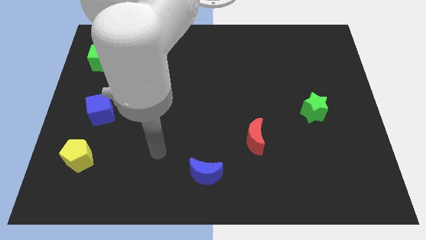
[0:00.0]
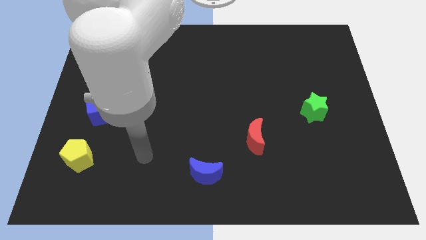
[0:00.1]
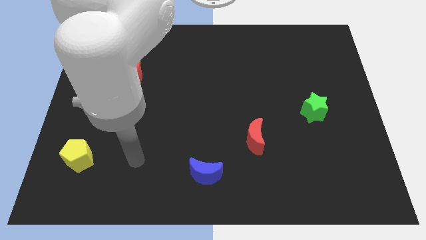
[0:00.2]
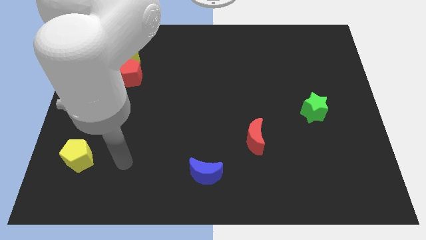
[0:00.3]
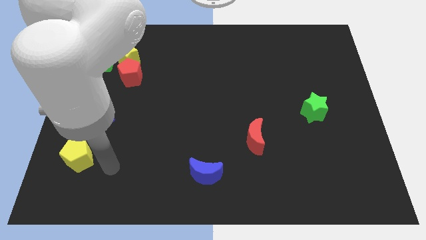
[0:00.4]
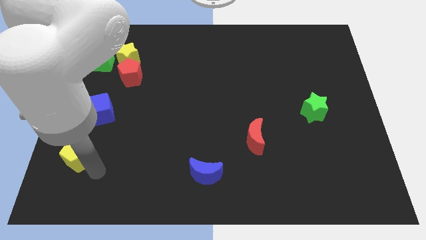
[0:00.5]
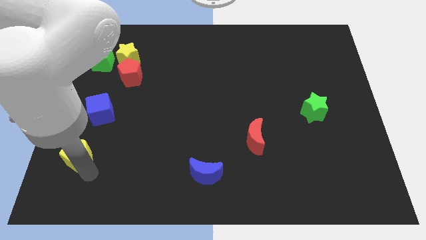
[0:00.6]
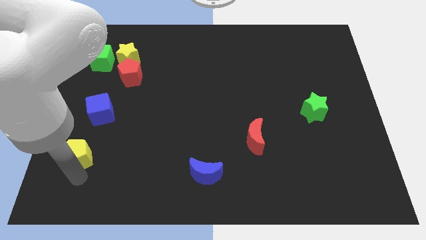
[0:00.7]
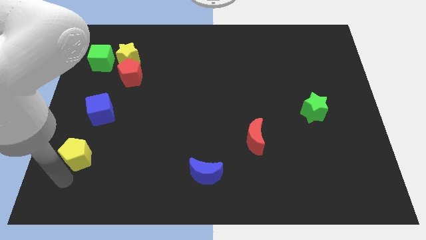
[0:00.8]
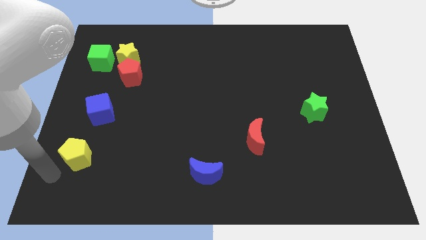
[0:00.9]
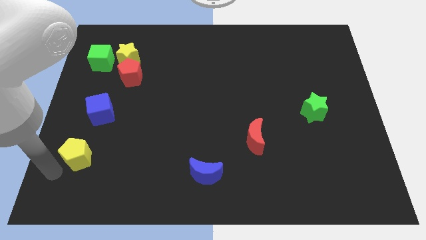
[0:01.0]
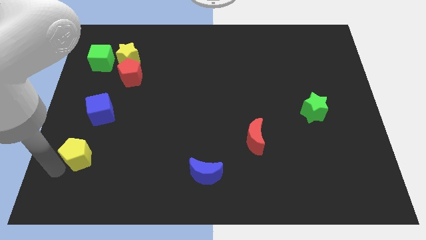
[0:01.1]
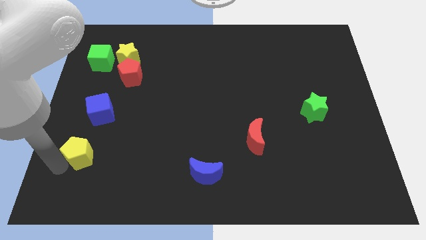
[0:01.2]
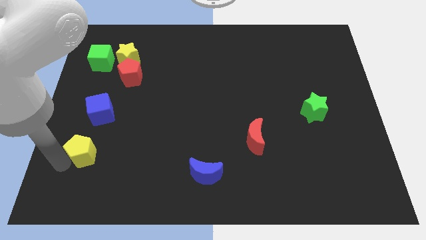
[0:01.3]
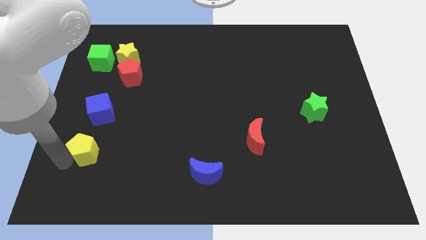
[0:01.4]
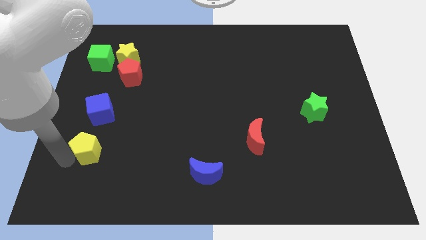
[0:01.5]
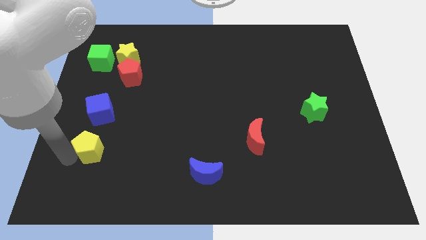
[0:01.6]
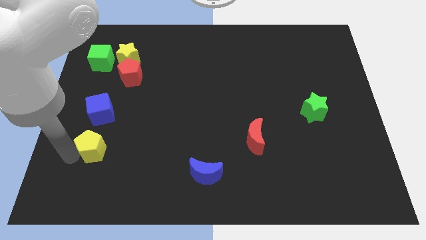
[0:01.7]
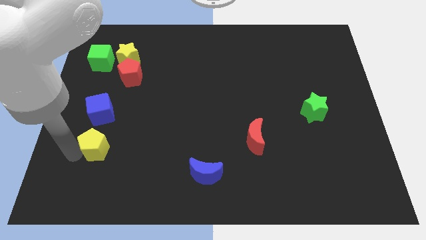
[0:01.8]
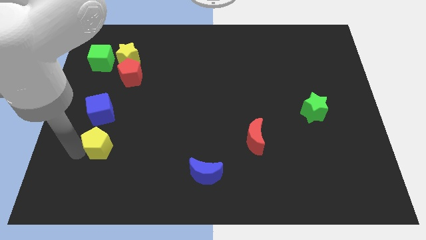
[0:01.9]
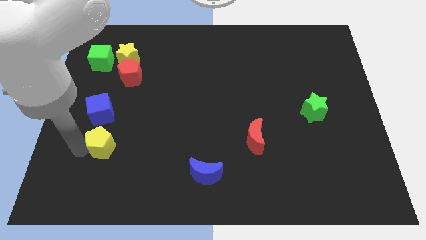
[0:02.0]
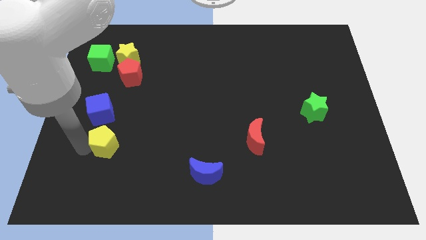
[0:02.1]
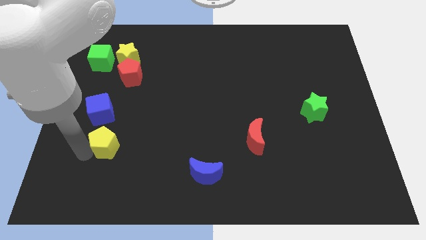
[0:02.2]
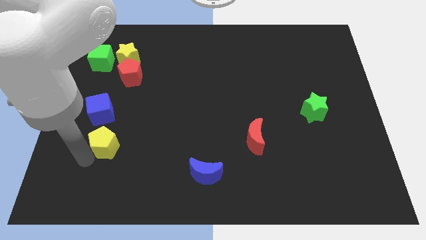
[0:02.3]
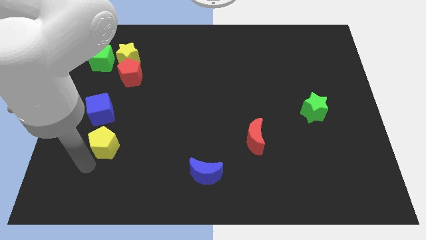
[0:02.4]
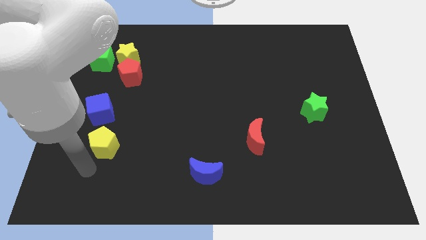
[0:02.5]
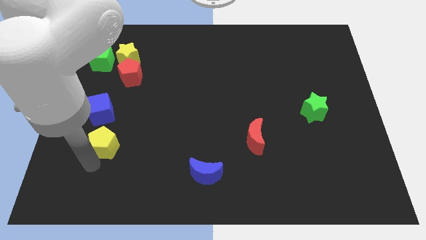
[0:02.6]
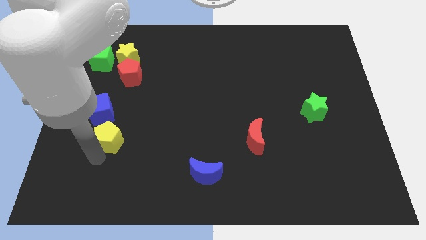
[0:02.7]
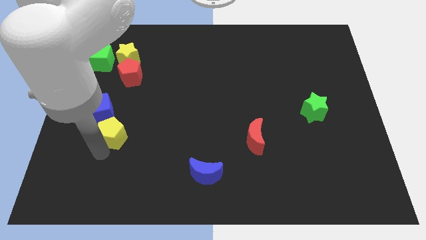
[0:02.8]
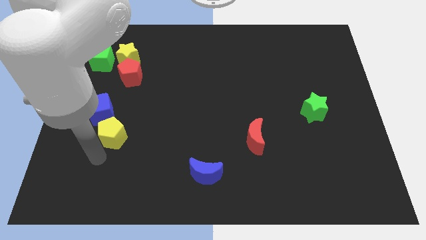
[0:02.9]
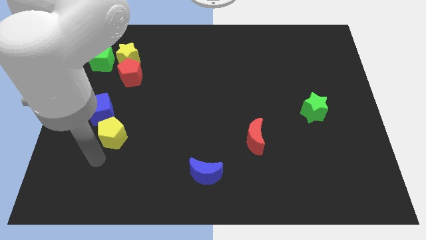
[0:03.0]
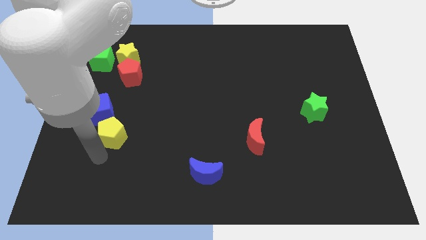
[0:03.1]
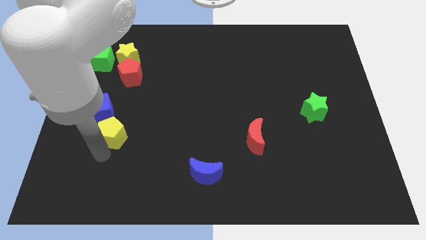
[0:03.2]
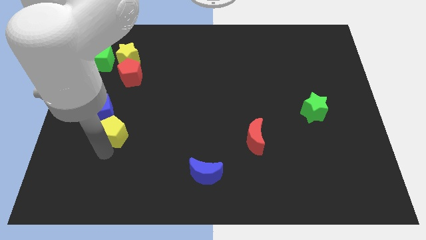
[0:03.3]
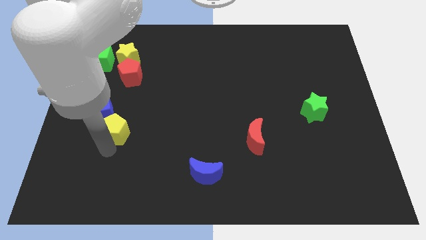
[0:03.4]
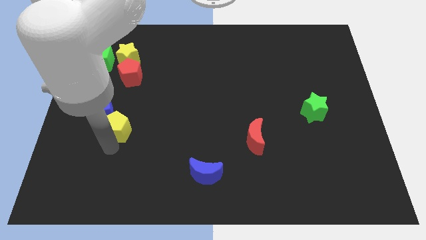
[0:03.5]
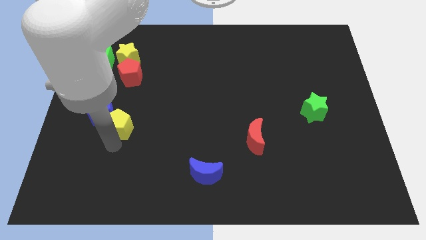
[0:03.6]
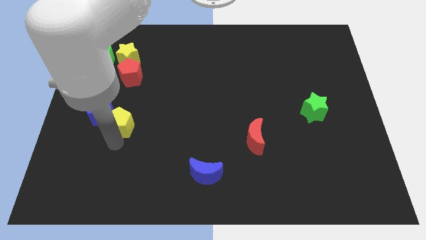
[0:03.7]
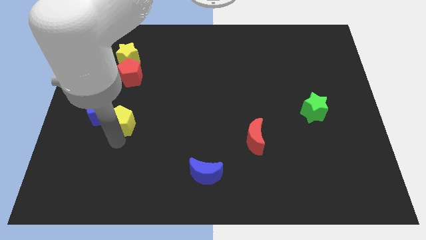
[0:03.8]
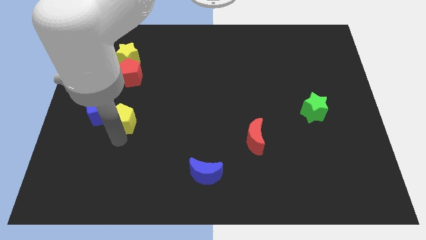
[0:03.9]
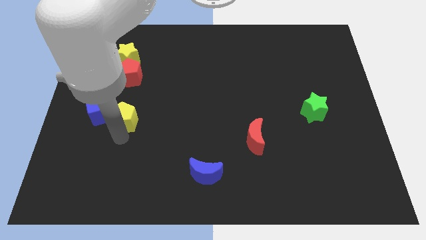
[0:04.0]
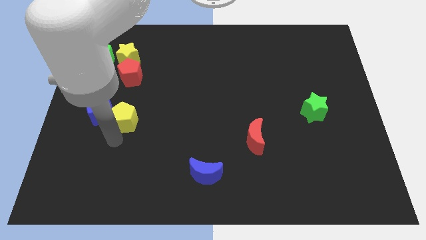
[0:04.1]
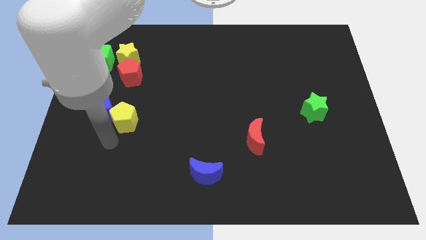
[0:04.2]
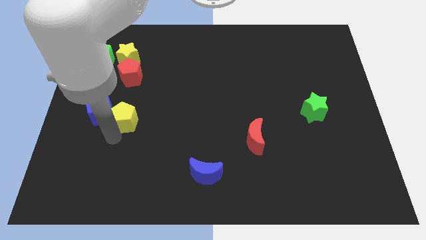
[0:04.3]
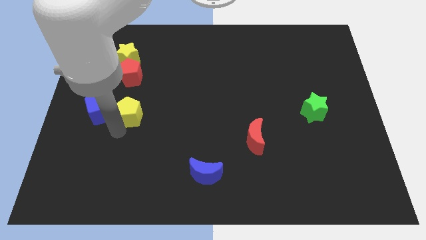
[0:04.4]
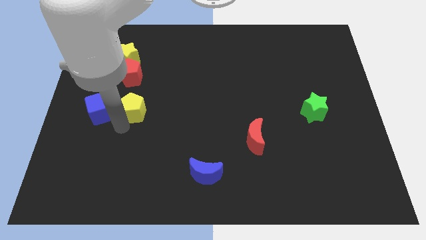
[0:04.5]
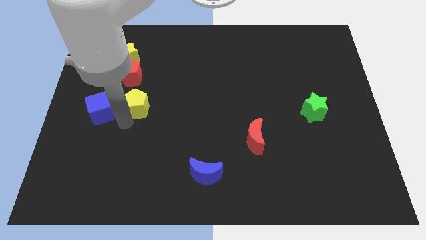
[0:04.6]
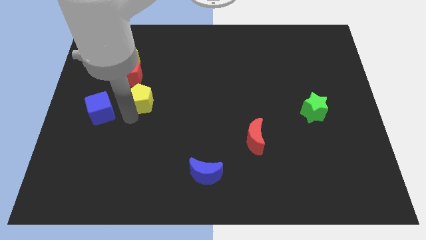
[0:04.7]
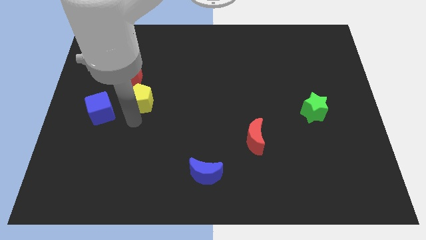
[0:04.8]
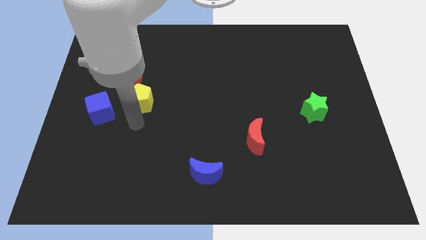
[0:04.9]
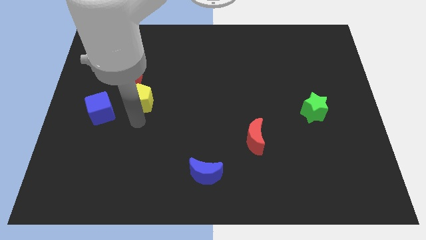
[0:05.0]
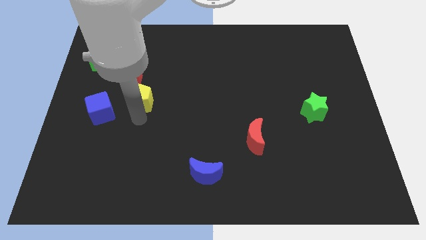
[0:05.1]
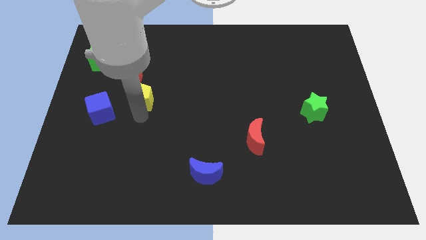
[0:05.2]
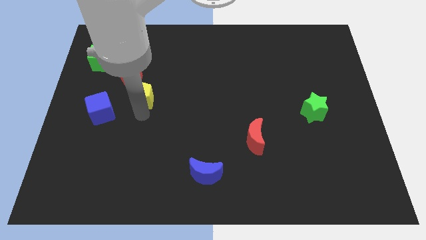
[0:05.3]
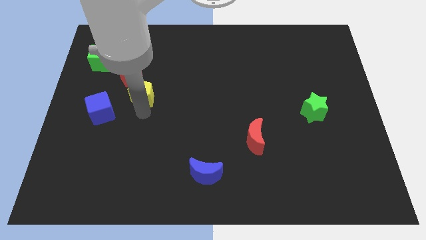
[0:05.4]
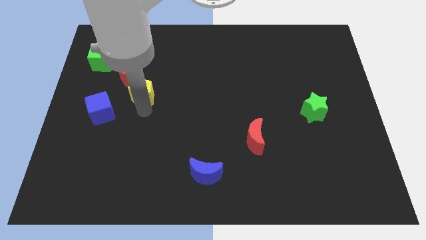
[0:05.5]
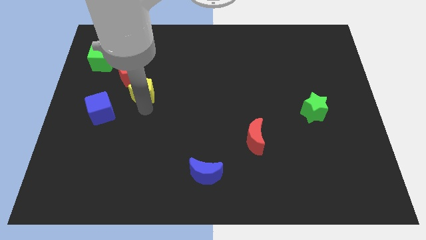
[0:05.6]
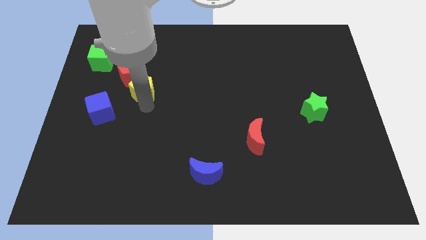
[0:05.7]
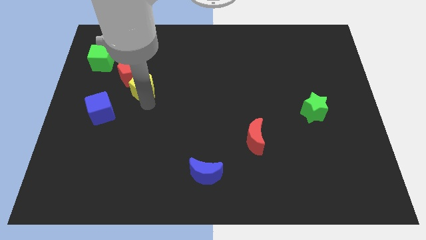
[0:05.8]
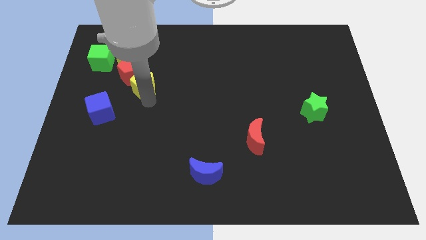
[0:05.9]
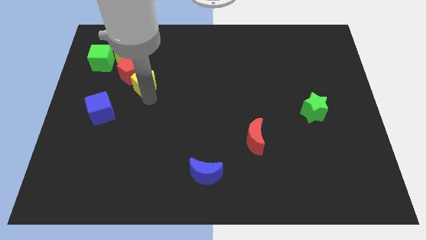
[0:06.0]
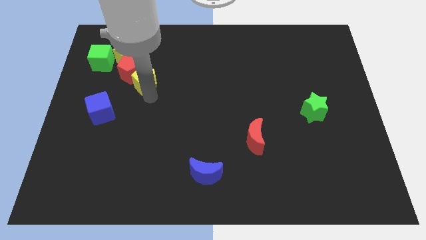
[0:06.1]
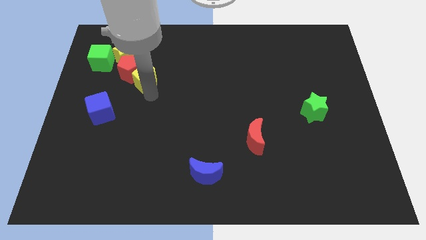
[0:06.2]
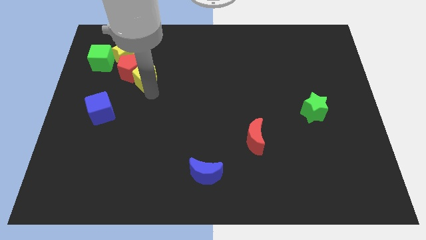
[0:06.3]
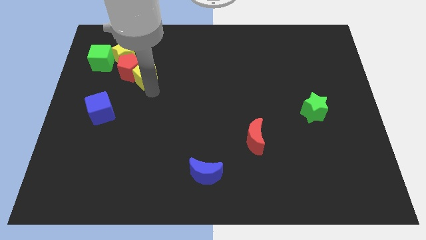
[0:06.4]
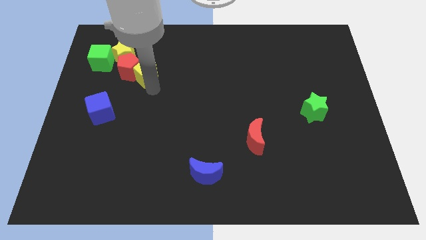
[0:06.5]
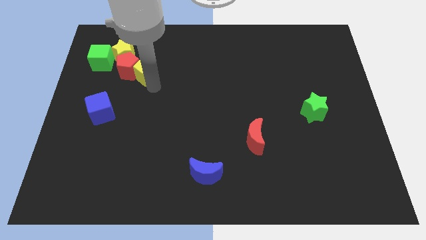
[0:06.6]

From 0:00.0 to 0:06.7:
put the yellow pentagon right of the green cube
